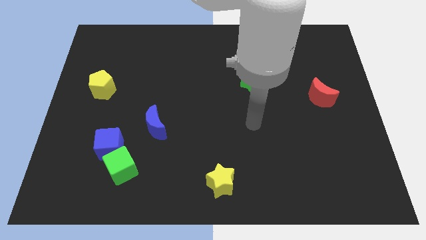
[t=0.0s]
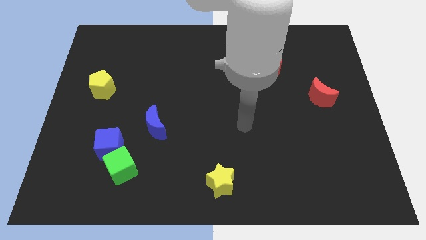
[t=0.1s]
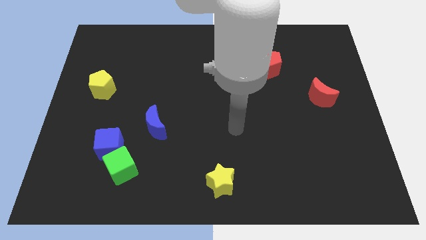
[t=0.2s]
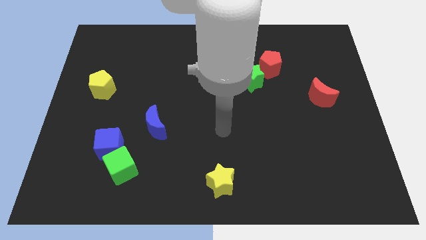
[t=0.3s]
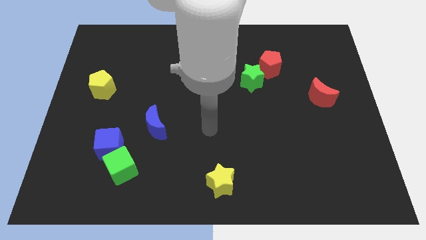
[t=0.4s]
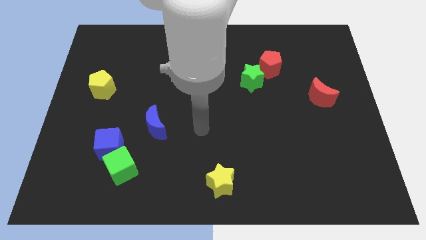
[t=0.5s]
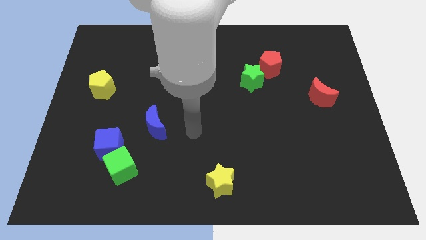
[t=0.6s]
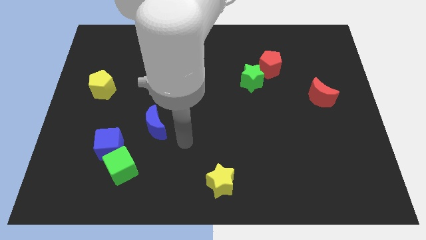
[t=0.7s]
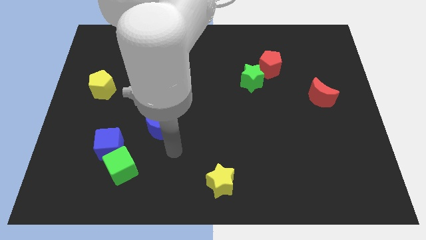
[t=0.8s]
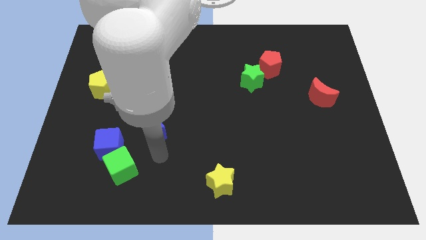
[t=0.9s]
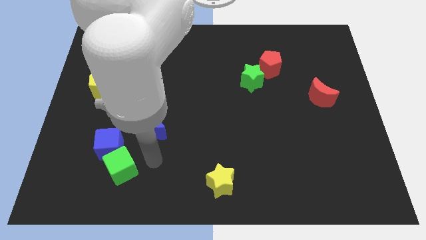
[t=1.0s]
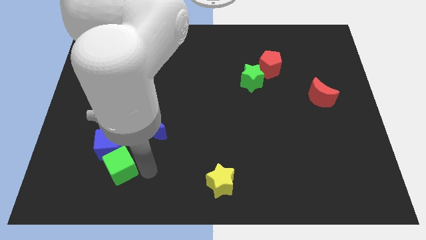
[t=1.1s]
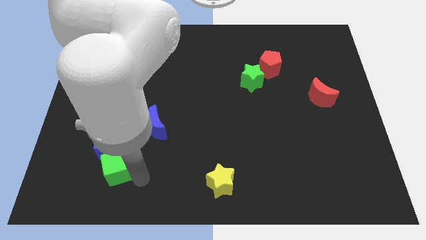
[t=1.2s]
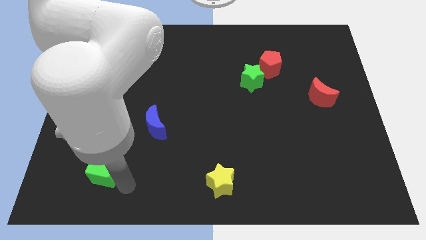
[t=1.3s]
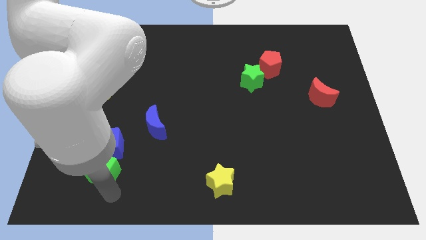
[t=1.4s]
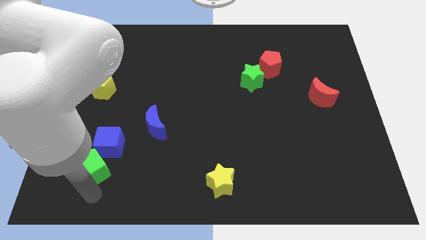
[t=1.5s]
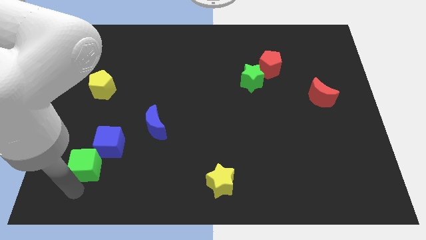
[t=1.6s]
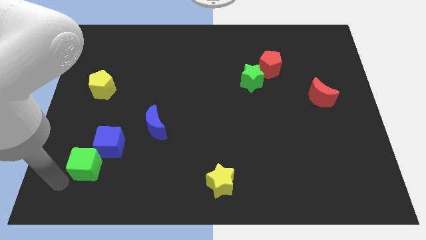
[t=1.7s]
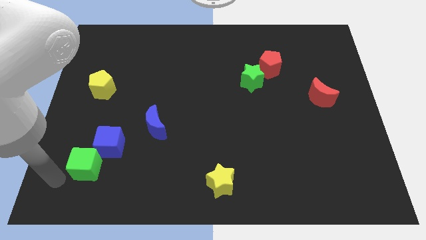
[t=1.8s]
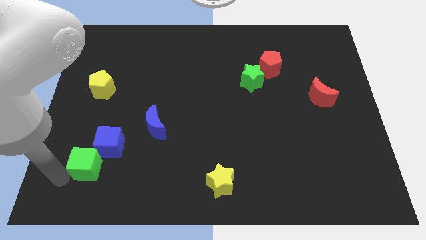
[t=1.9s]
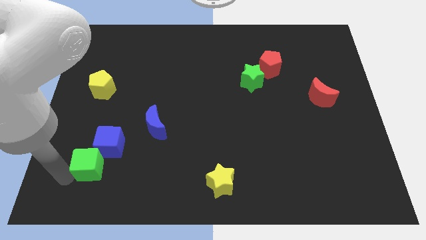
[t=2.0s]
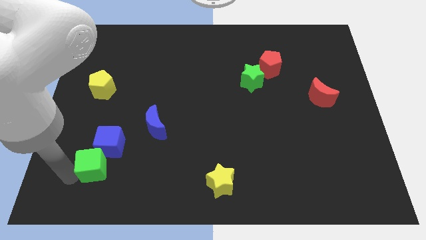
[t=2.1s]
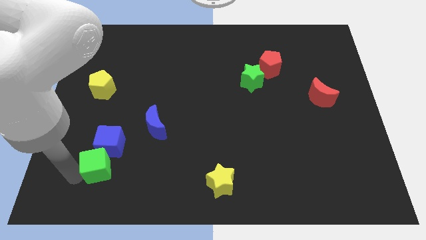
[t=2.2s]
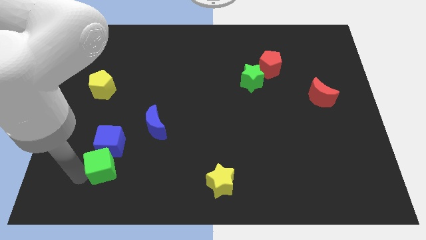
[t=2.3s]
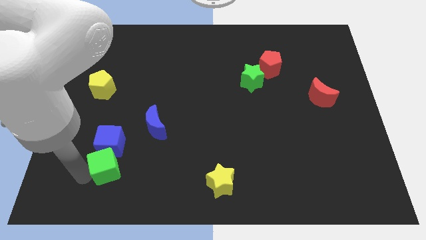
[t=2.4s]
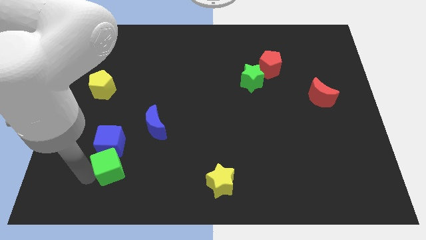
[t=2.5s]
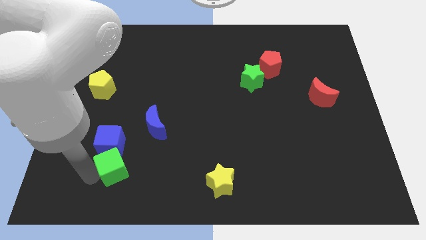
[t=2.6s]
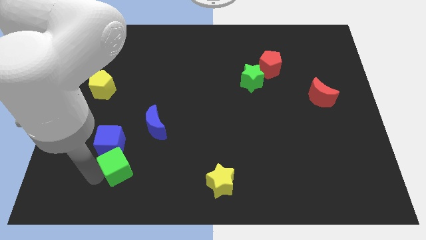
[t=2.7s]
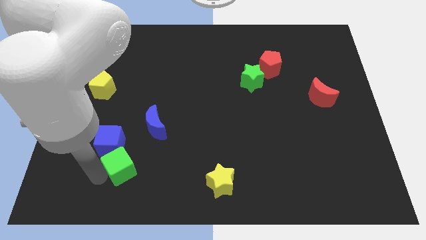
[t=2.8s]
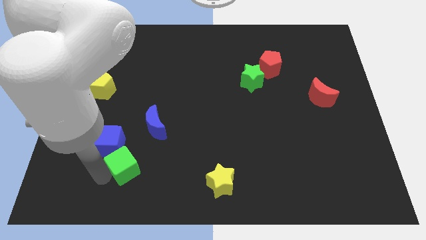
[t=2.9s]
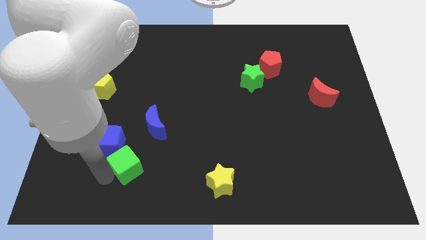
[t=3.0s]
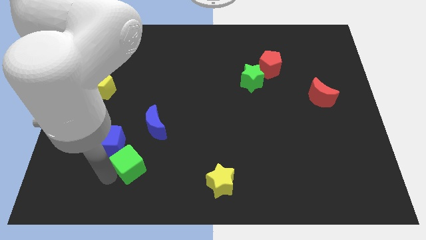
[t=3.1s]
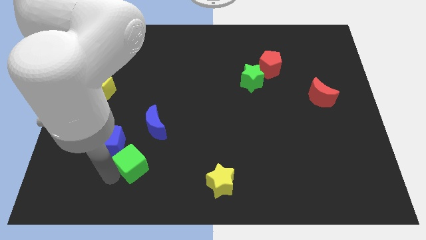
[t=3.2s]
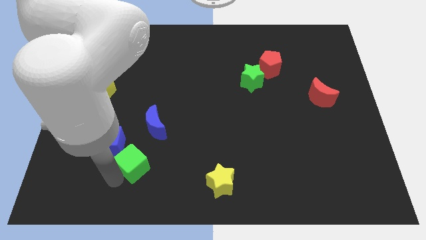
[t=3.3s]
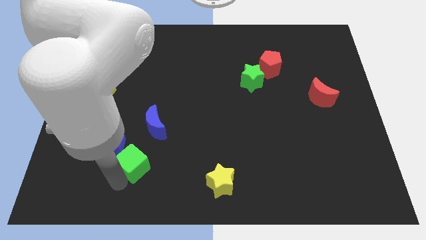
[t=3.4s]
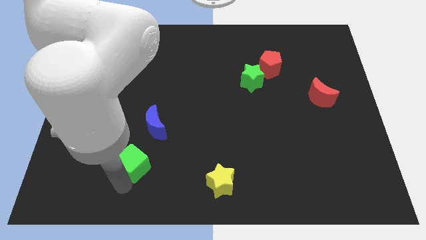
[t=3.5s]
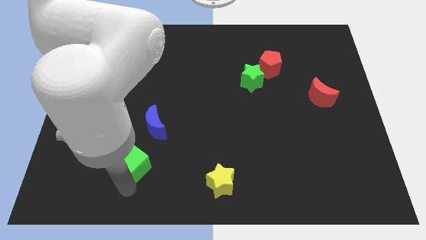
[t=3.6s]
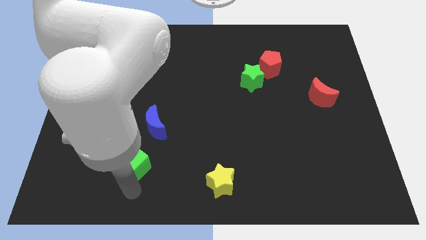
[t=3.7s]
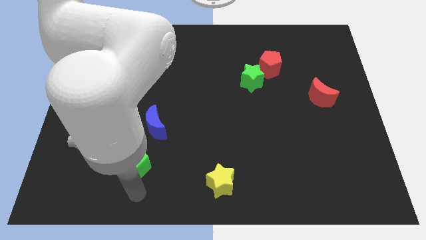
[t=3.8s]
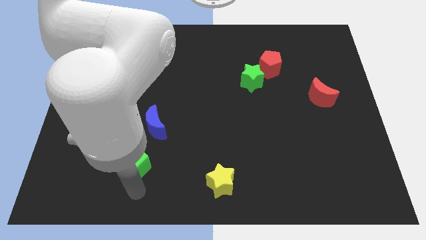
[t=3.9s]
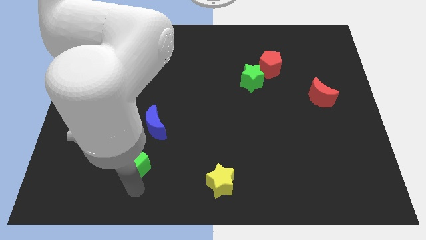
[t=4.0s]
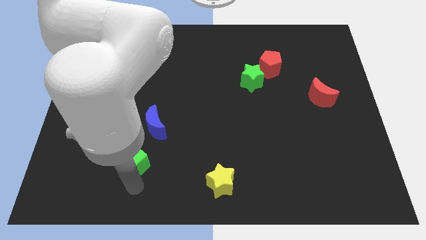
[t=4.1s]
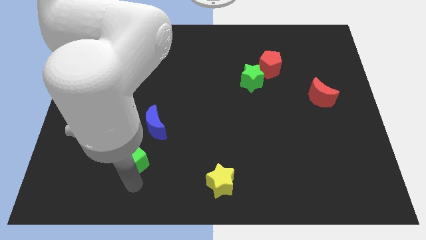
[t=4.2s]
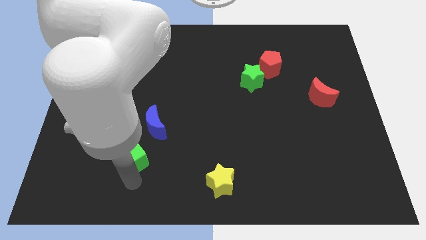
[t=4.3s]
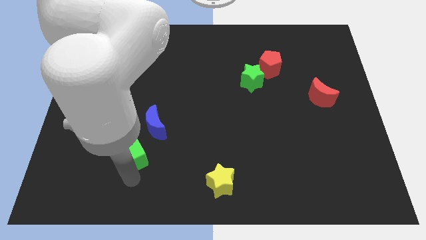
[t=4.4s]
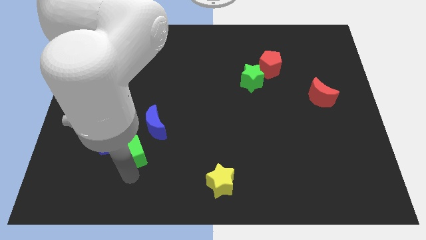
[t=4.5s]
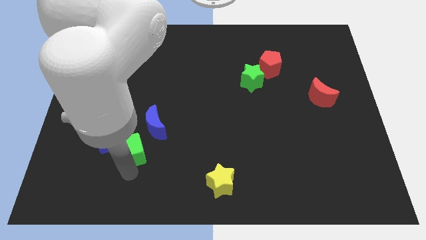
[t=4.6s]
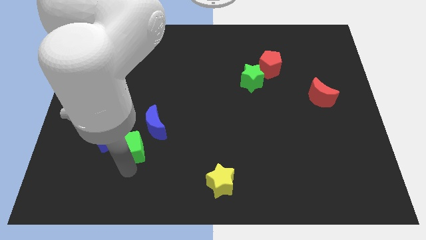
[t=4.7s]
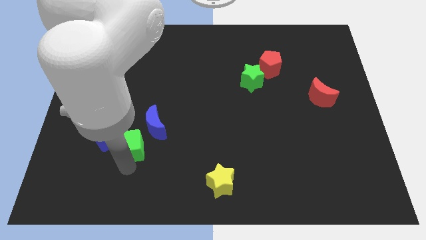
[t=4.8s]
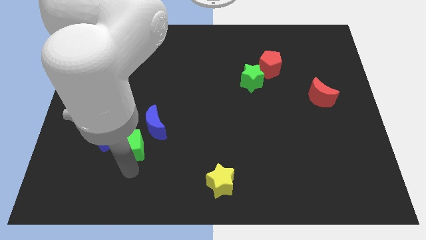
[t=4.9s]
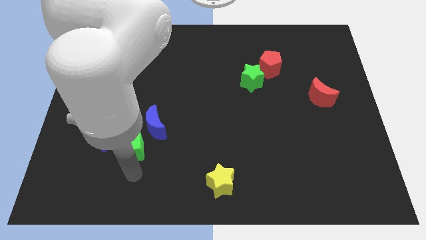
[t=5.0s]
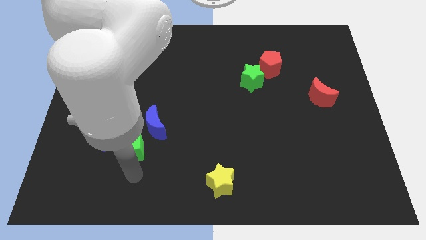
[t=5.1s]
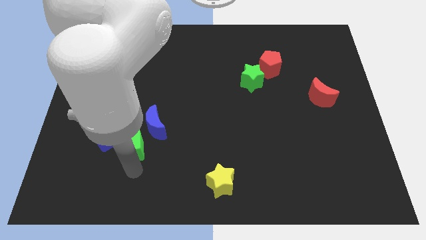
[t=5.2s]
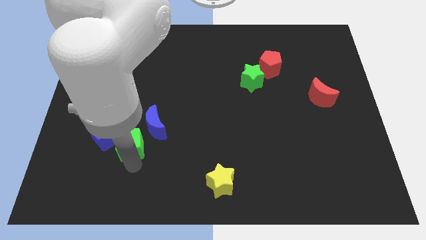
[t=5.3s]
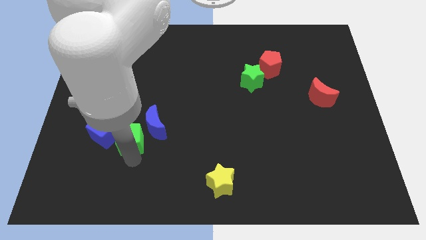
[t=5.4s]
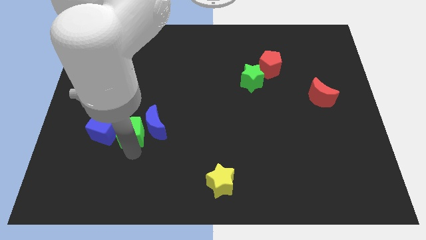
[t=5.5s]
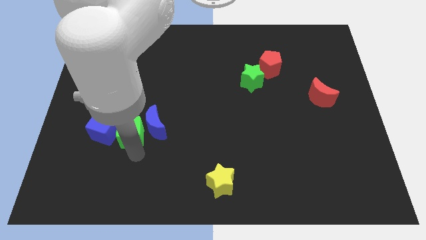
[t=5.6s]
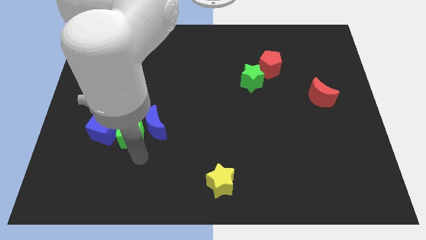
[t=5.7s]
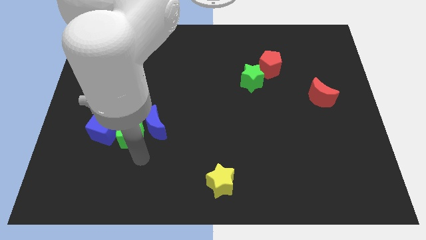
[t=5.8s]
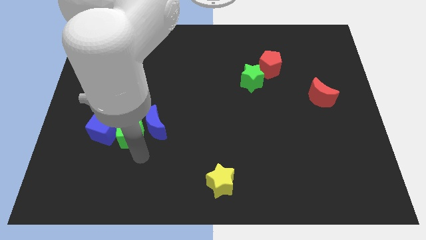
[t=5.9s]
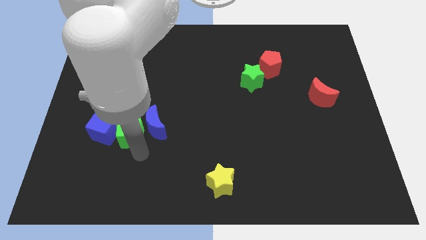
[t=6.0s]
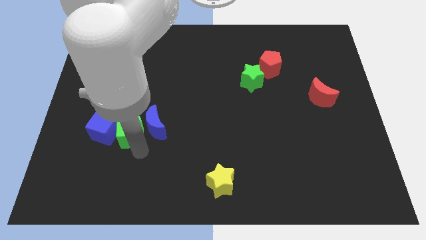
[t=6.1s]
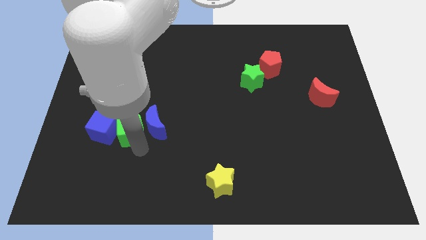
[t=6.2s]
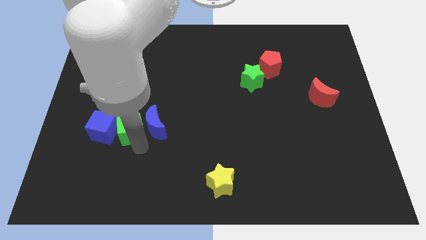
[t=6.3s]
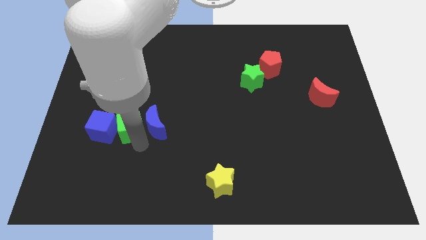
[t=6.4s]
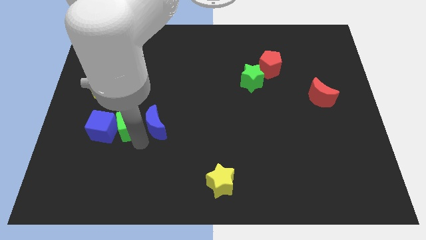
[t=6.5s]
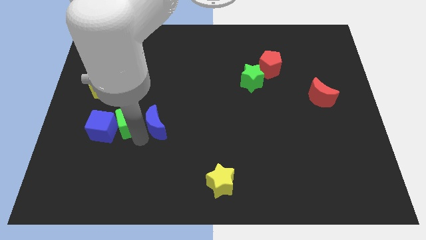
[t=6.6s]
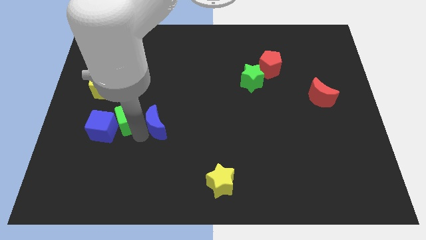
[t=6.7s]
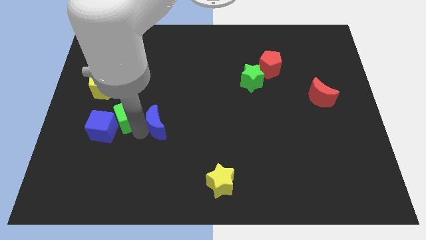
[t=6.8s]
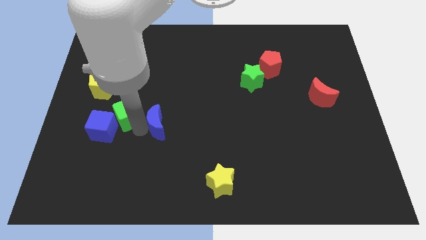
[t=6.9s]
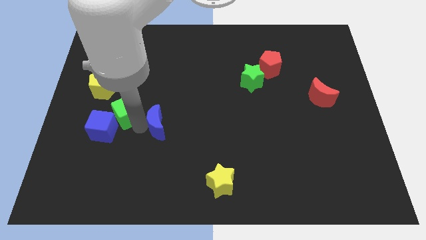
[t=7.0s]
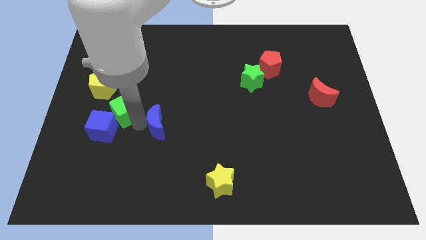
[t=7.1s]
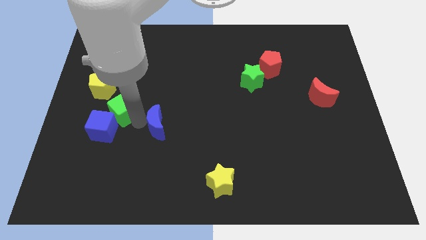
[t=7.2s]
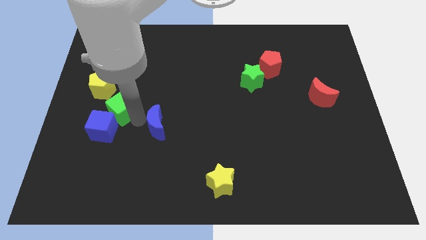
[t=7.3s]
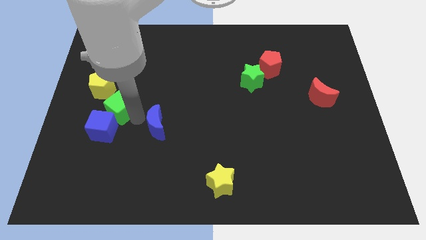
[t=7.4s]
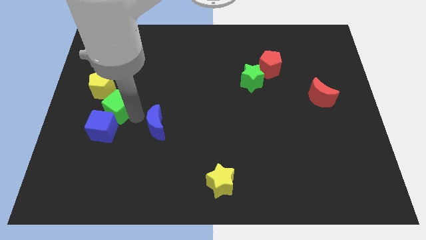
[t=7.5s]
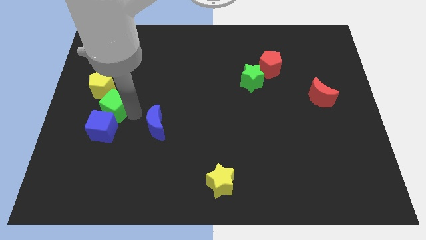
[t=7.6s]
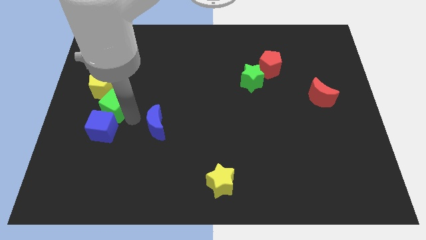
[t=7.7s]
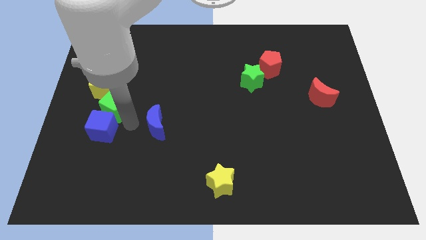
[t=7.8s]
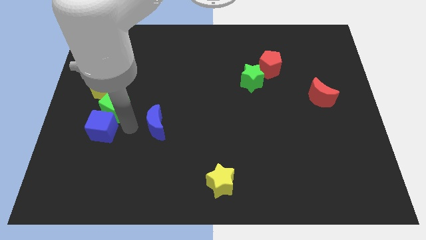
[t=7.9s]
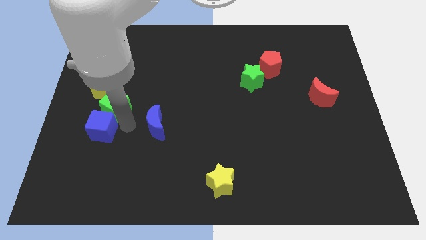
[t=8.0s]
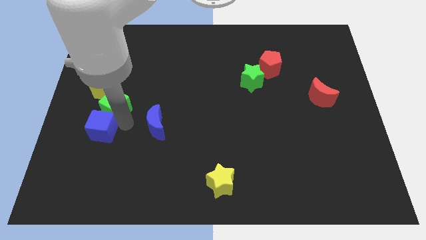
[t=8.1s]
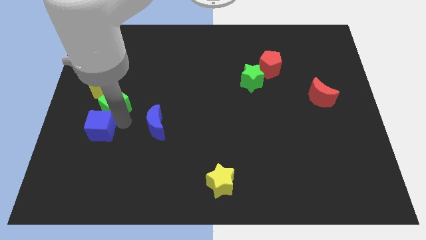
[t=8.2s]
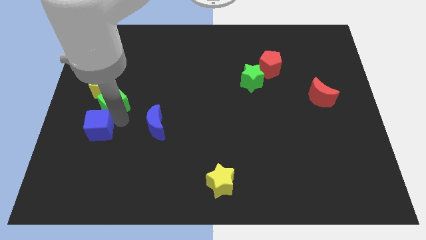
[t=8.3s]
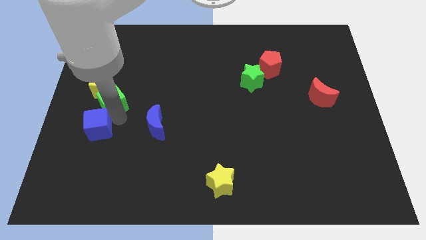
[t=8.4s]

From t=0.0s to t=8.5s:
slide the green cube to the yellow pentagon
